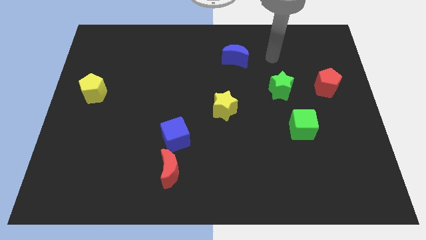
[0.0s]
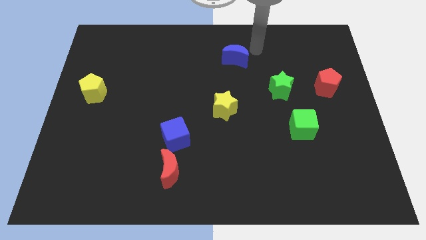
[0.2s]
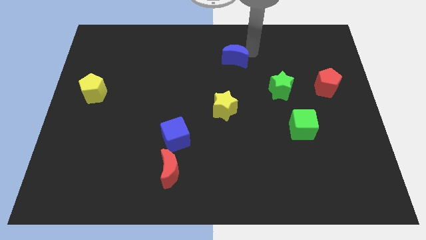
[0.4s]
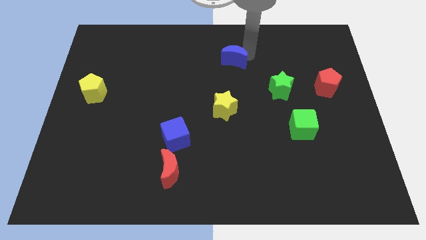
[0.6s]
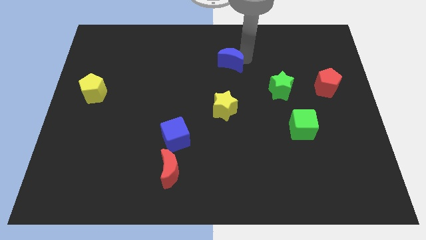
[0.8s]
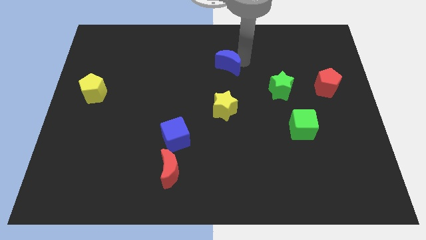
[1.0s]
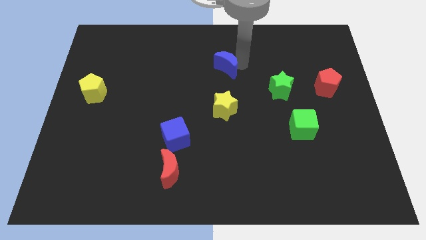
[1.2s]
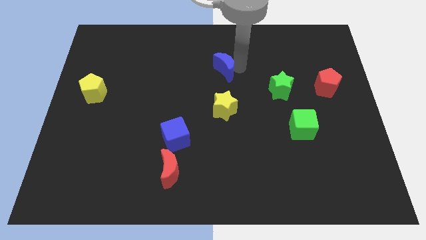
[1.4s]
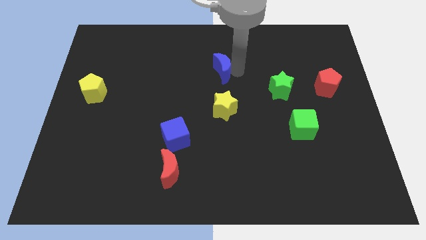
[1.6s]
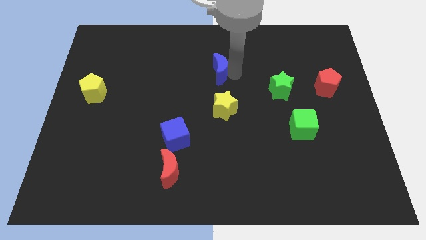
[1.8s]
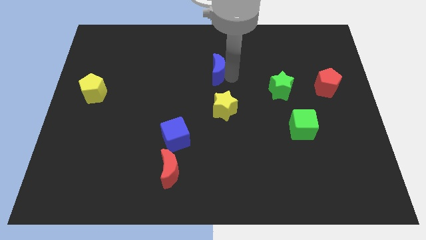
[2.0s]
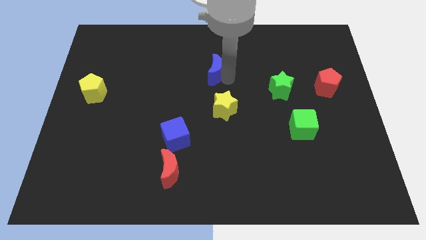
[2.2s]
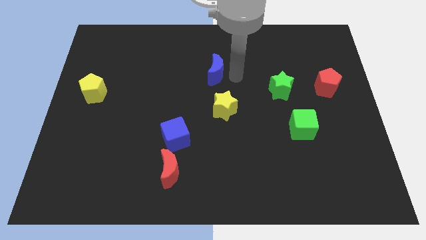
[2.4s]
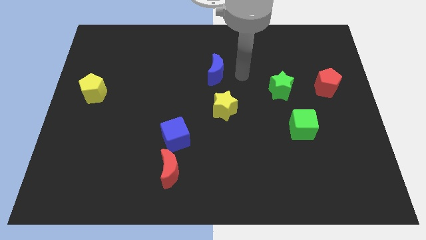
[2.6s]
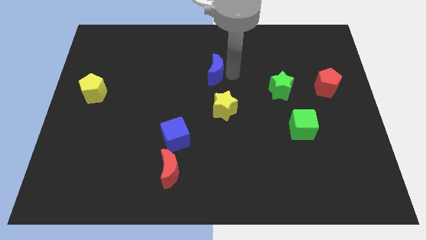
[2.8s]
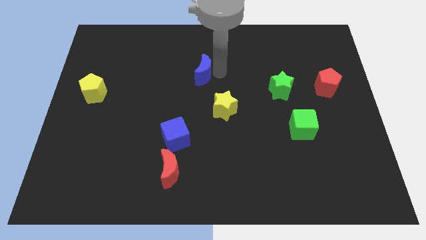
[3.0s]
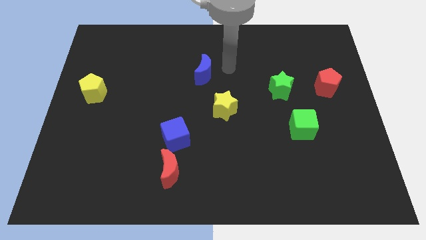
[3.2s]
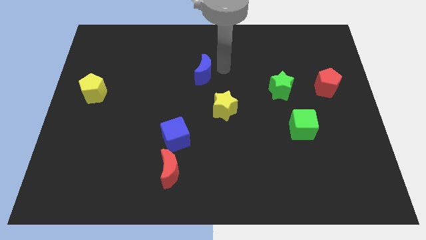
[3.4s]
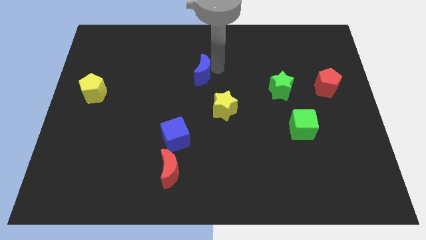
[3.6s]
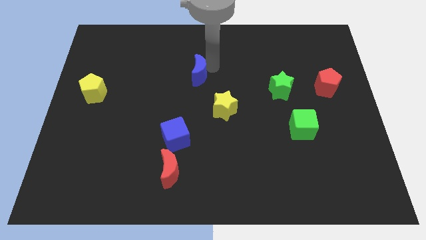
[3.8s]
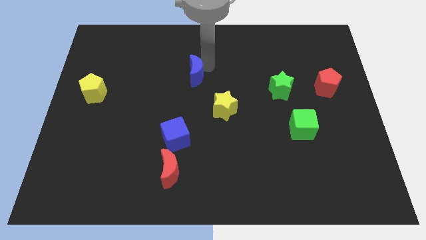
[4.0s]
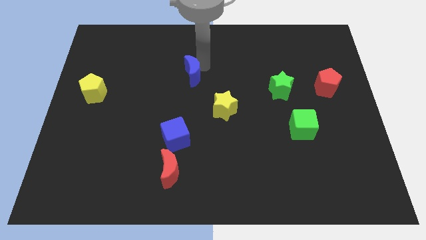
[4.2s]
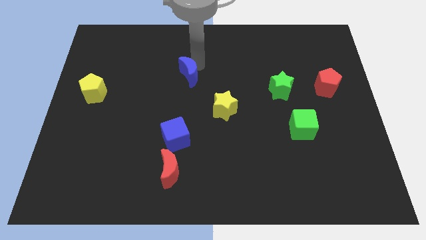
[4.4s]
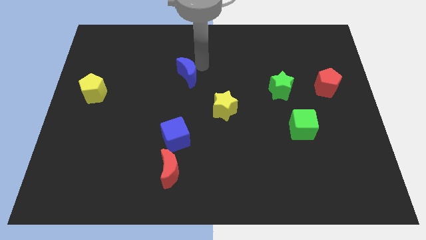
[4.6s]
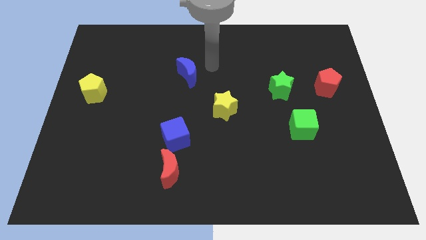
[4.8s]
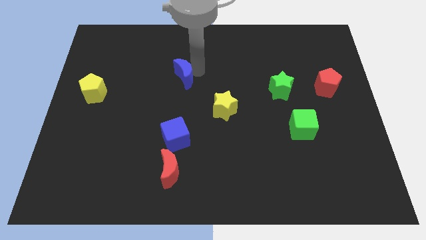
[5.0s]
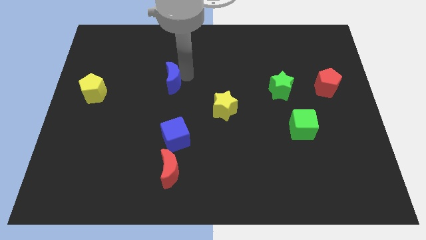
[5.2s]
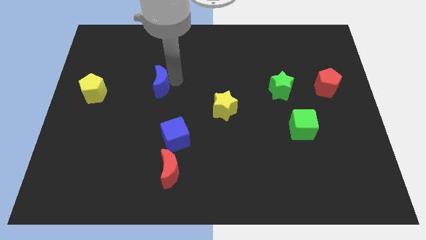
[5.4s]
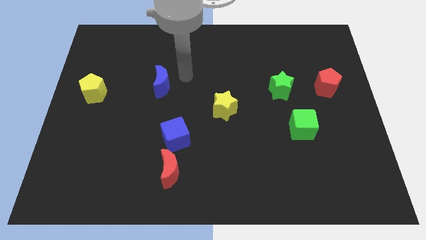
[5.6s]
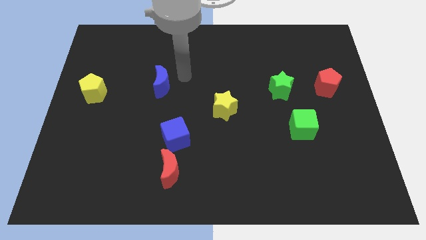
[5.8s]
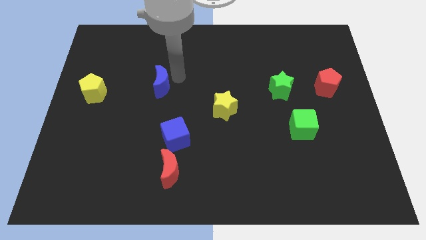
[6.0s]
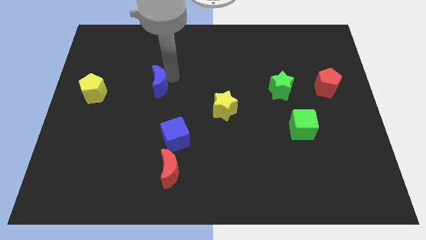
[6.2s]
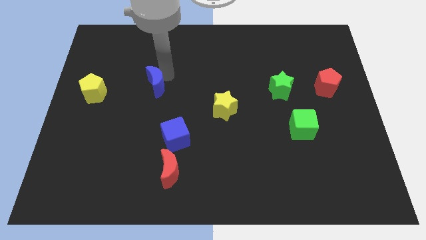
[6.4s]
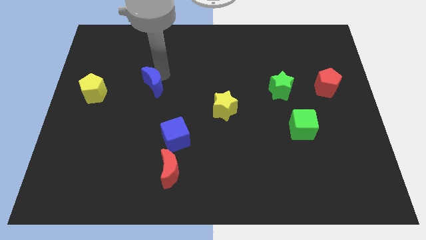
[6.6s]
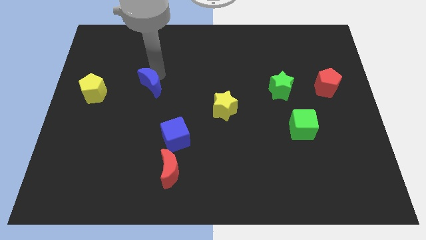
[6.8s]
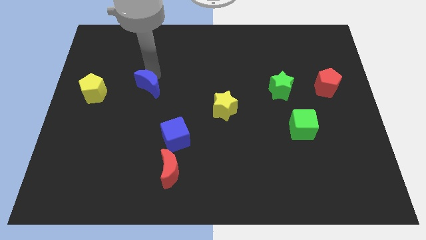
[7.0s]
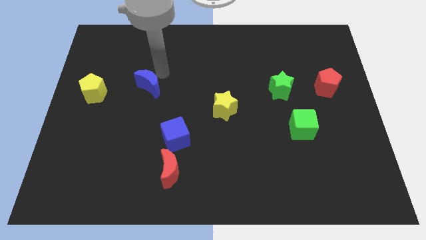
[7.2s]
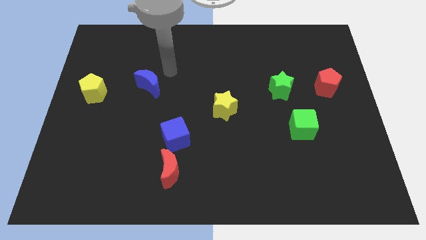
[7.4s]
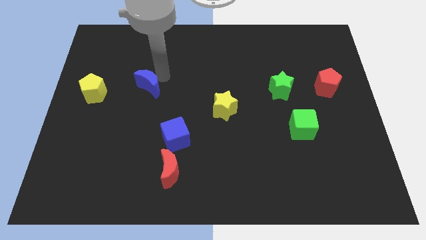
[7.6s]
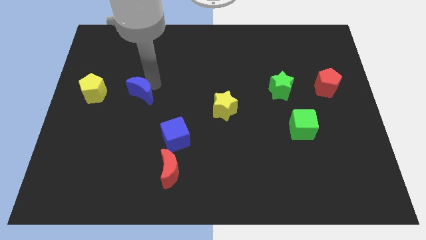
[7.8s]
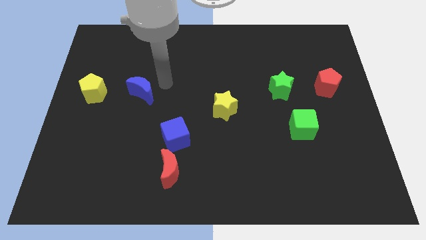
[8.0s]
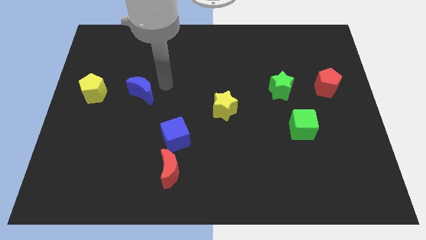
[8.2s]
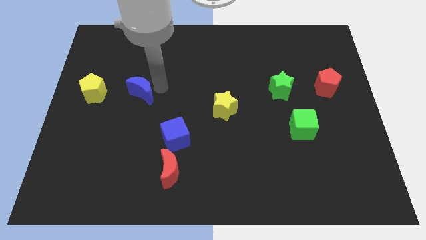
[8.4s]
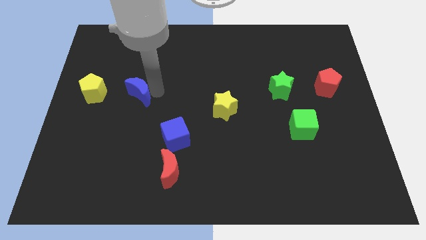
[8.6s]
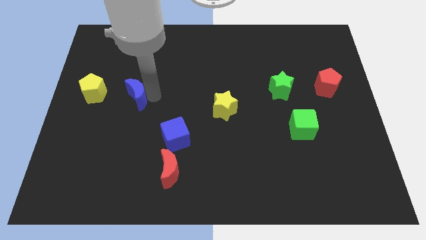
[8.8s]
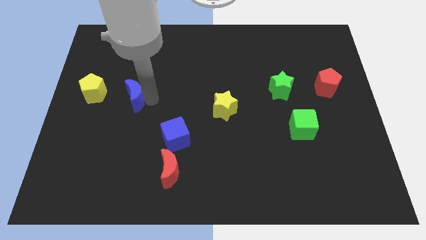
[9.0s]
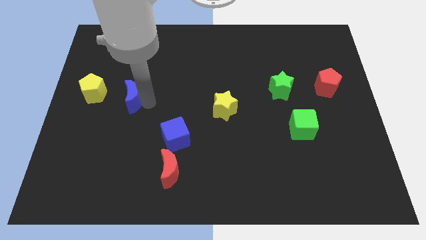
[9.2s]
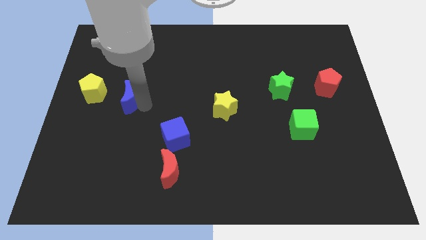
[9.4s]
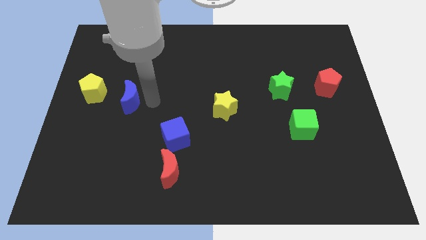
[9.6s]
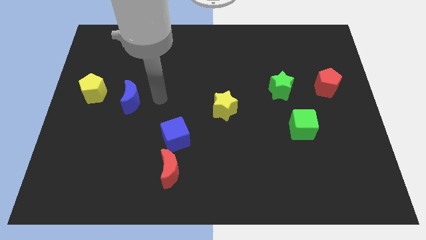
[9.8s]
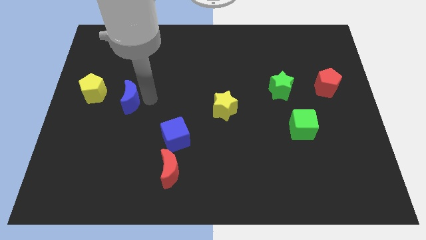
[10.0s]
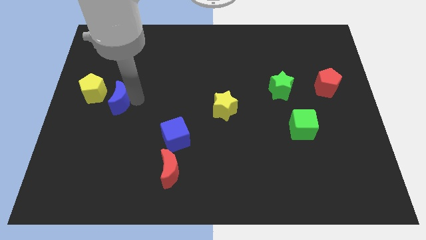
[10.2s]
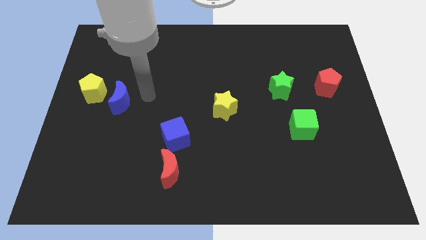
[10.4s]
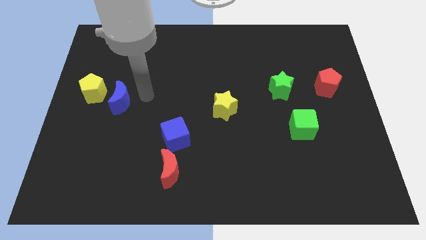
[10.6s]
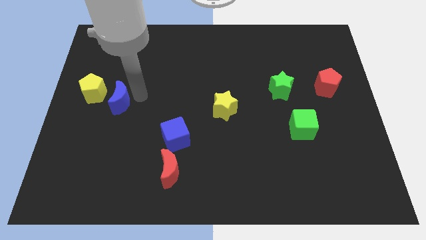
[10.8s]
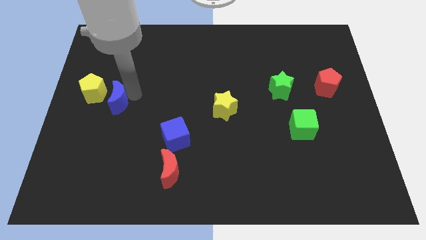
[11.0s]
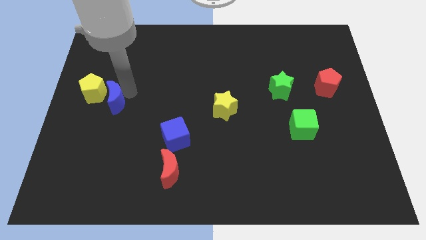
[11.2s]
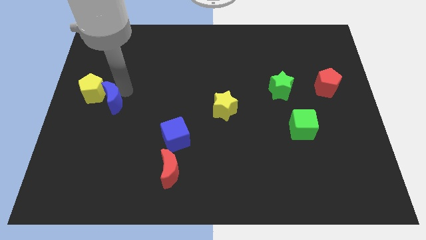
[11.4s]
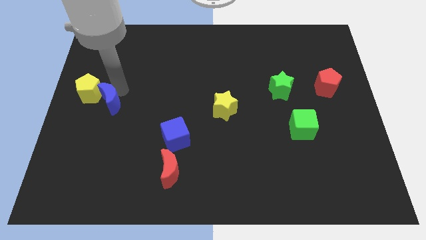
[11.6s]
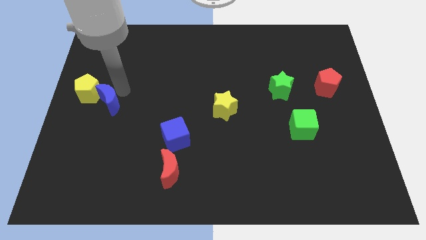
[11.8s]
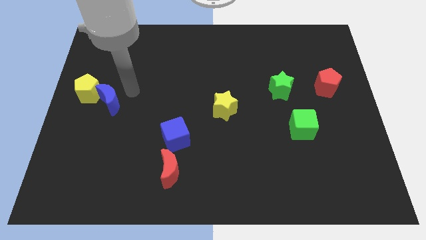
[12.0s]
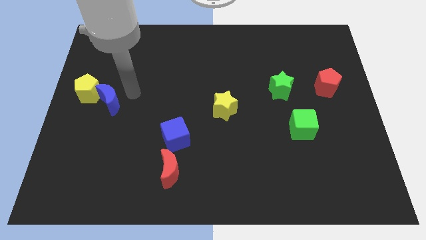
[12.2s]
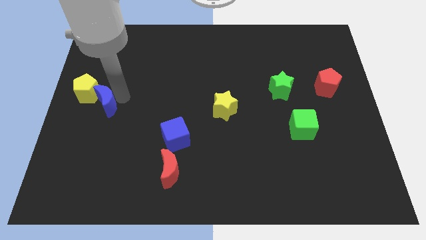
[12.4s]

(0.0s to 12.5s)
push the blue moon to the left side of the board
